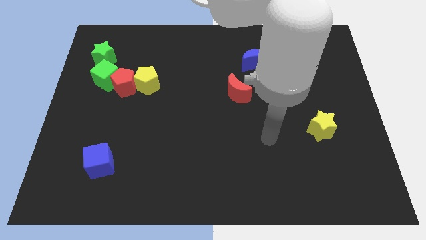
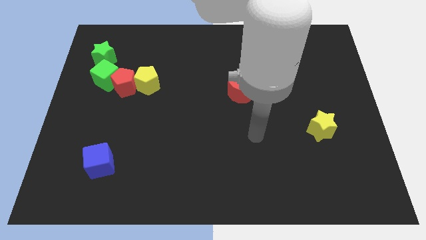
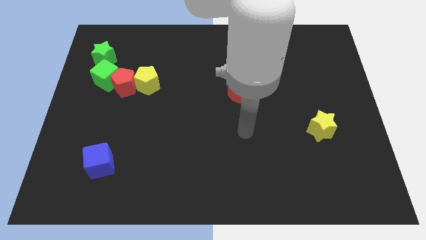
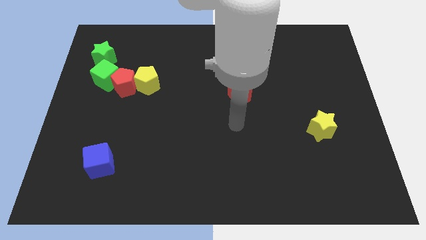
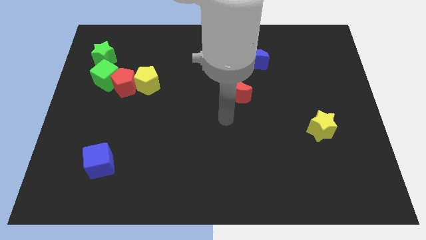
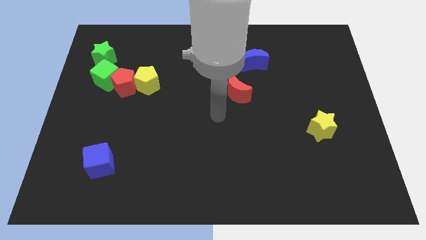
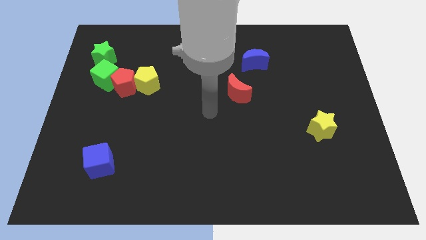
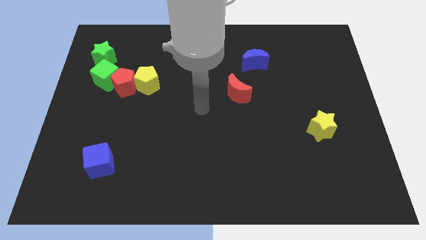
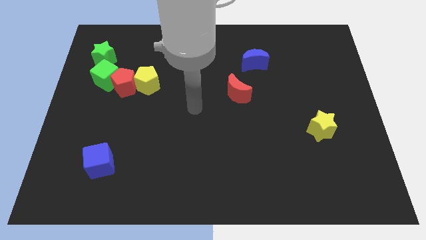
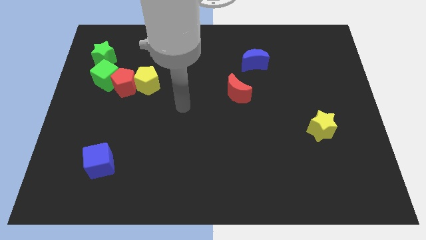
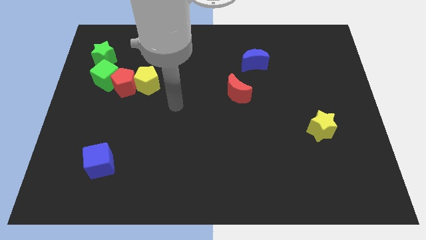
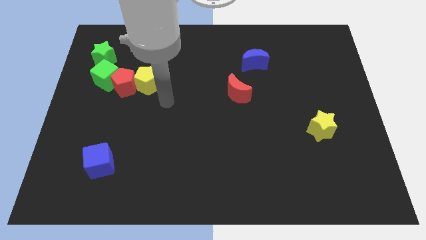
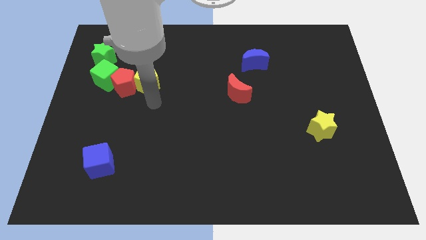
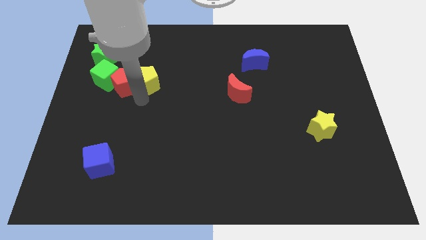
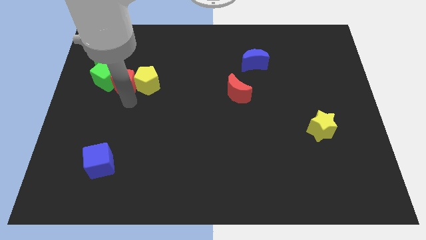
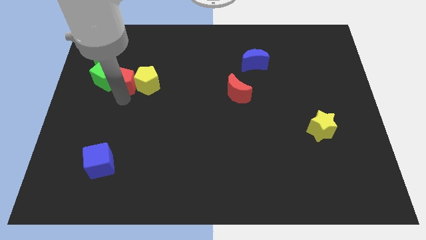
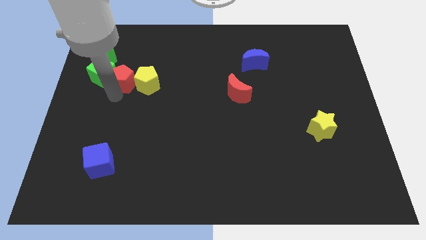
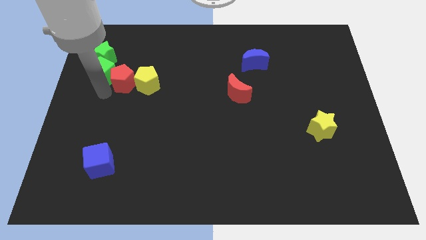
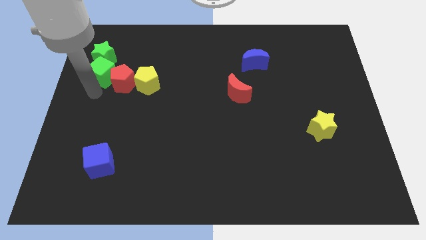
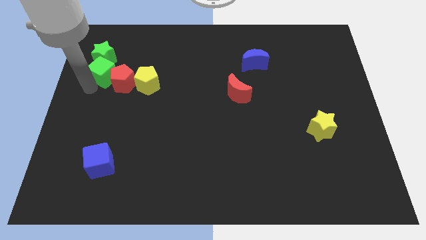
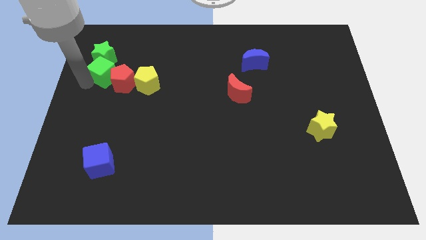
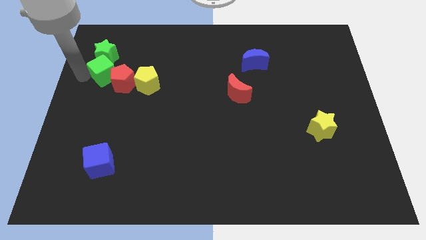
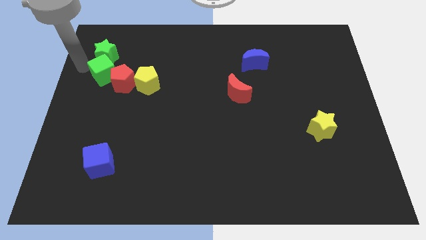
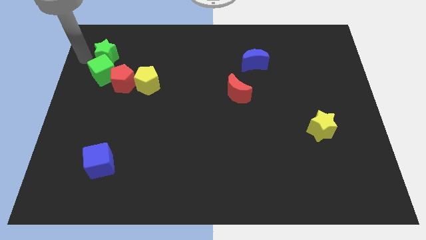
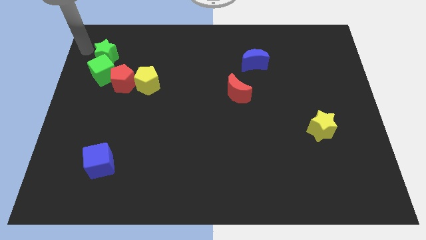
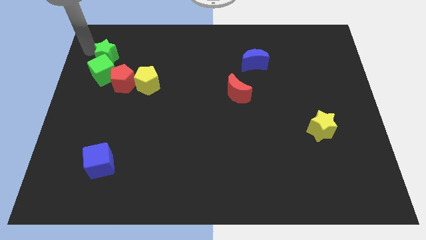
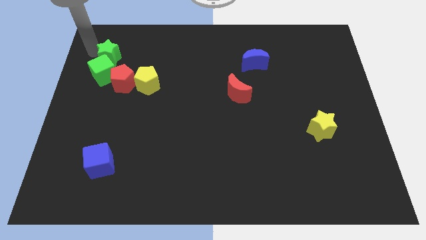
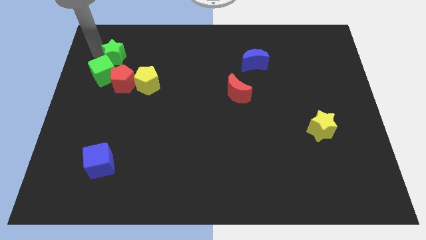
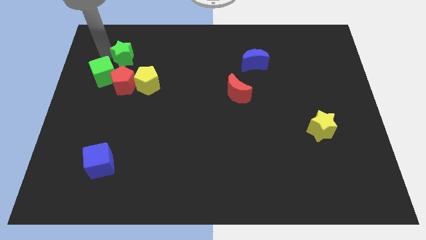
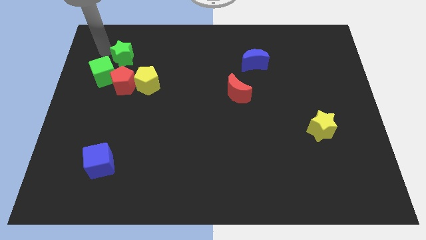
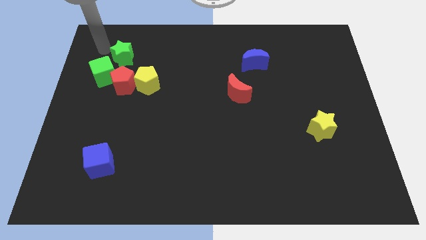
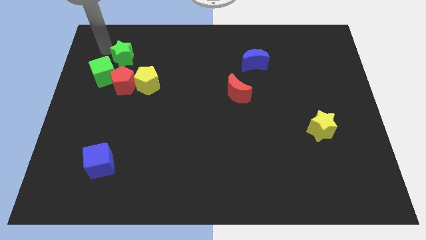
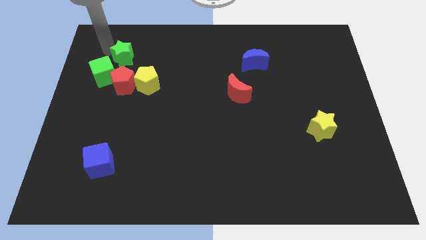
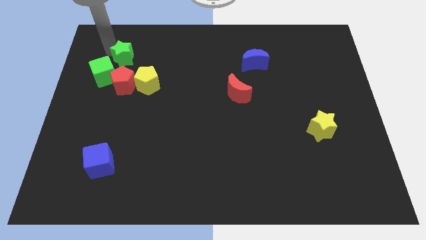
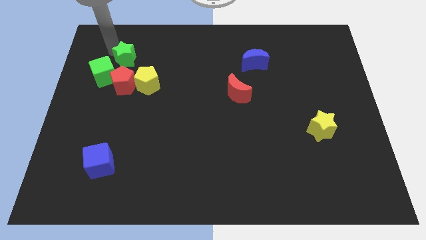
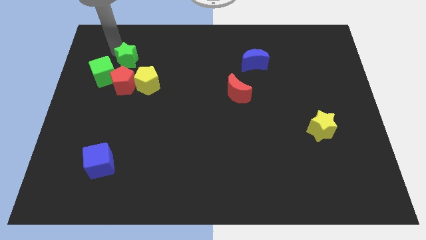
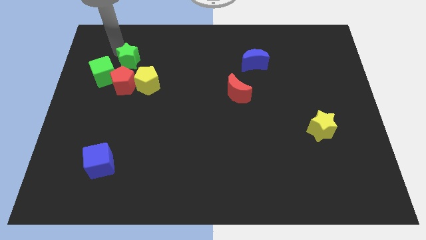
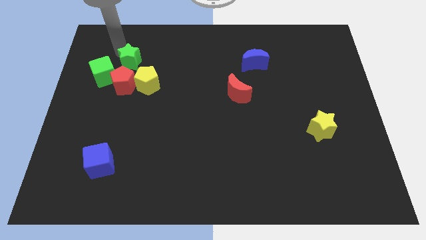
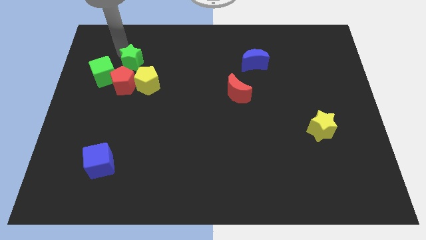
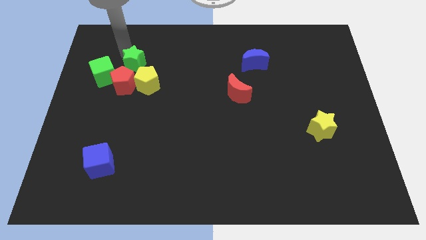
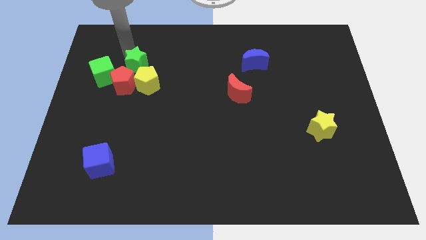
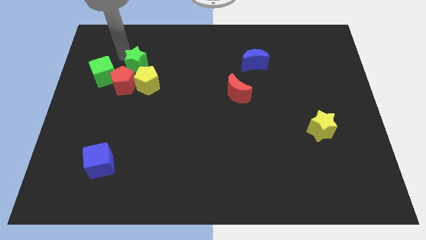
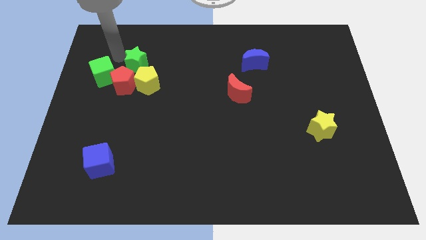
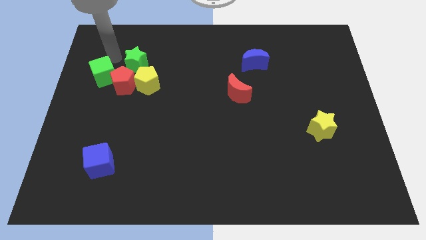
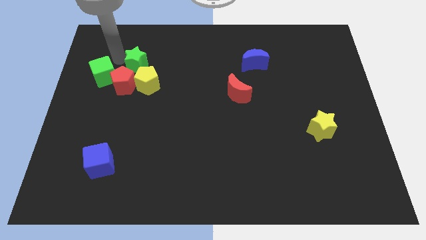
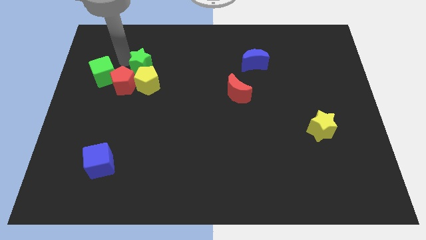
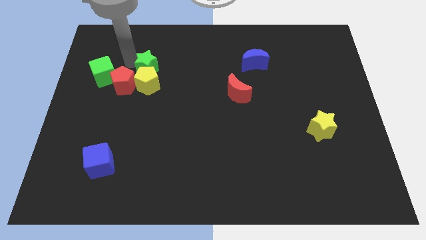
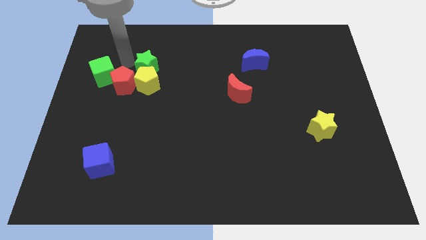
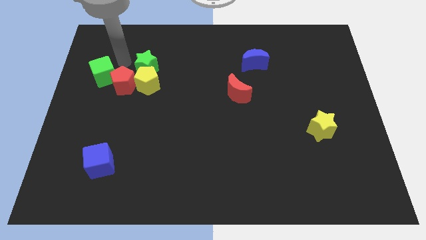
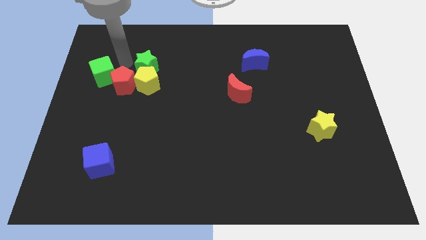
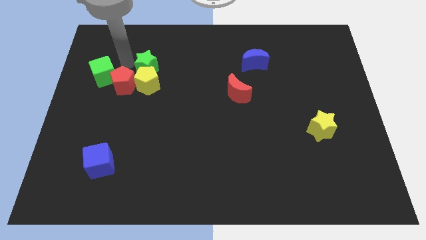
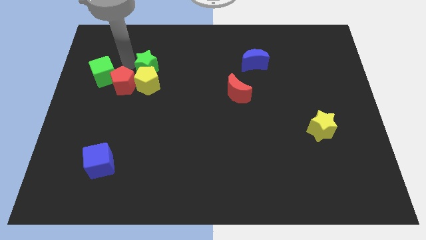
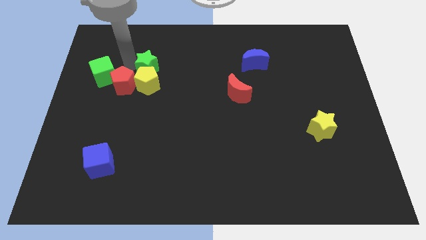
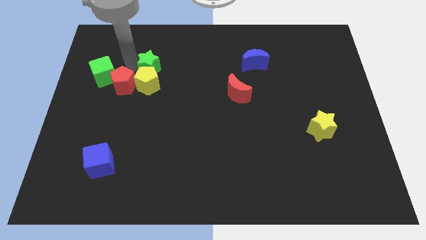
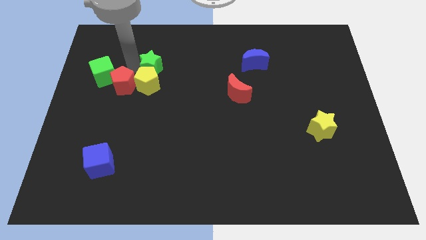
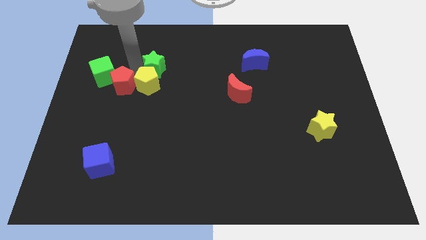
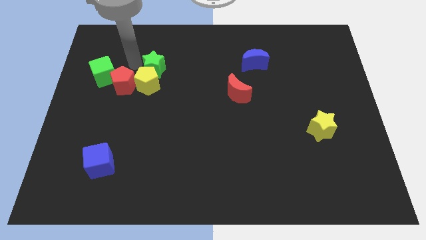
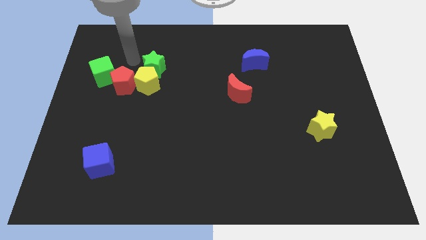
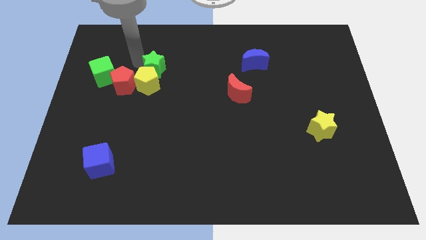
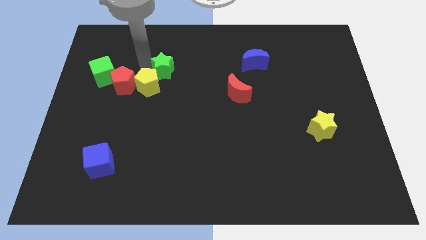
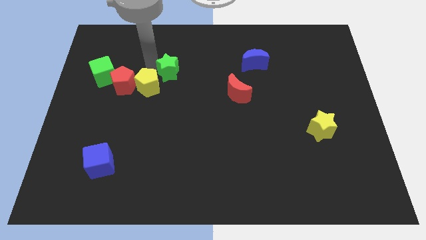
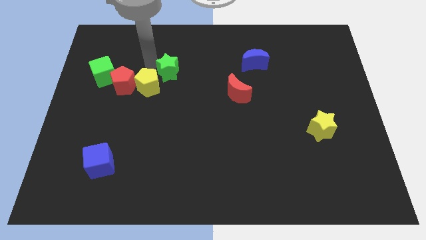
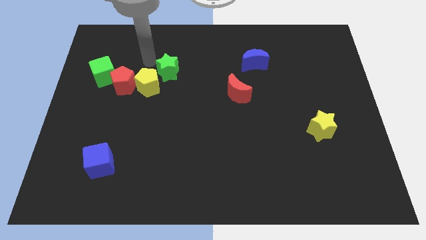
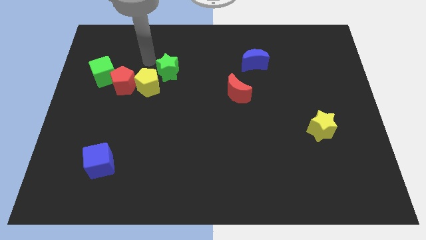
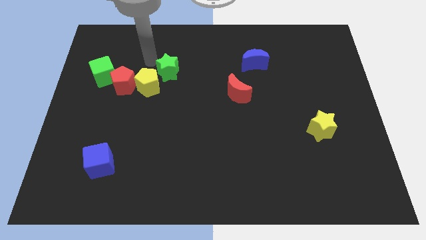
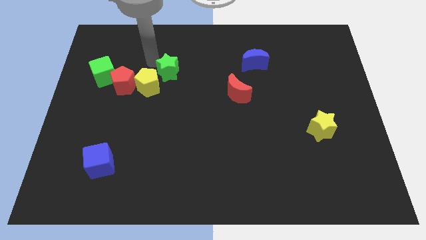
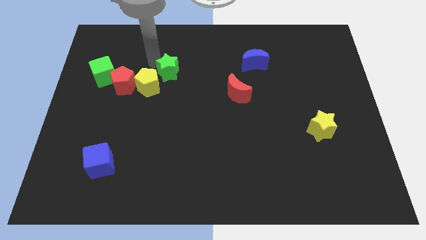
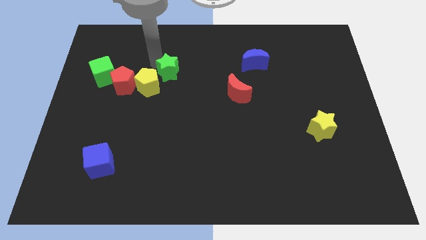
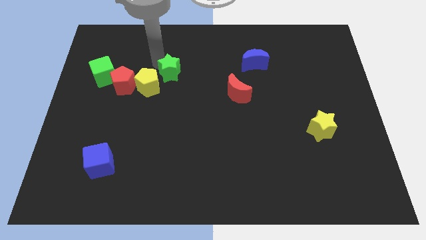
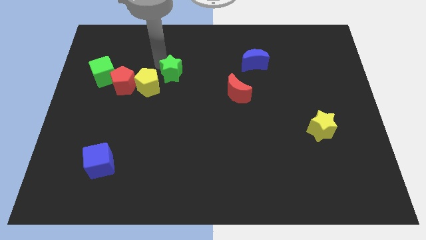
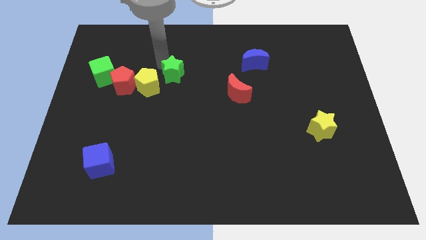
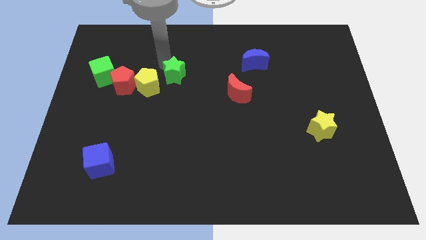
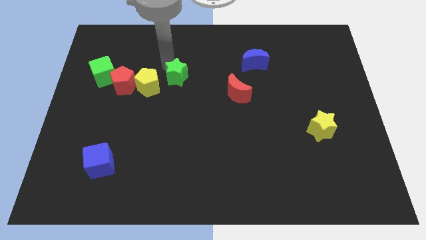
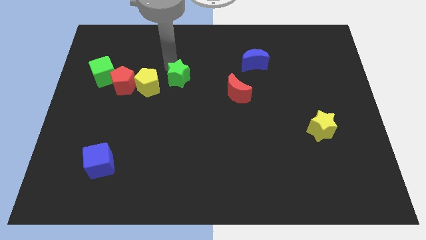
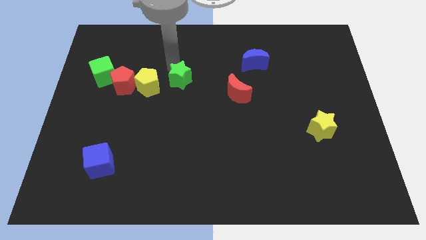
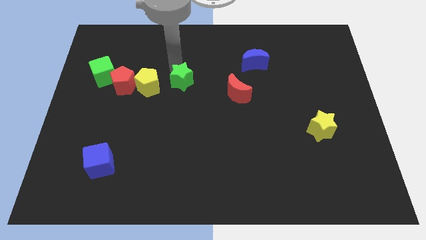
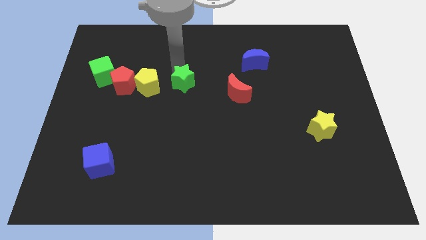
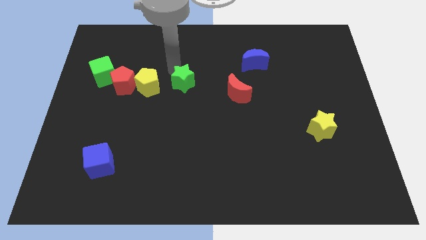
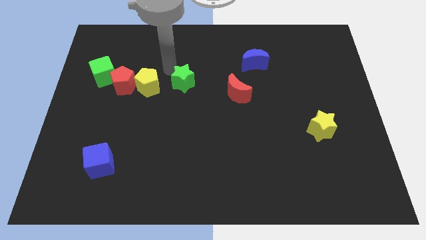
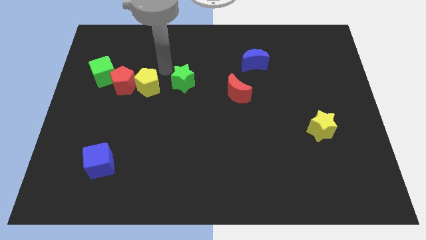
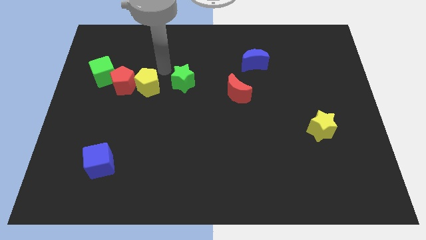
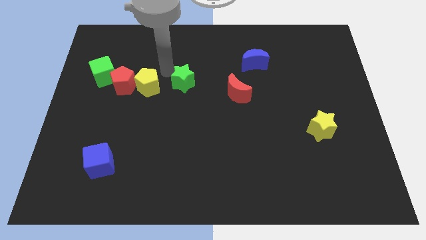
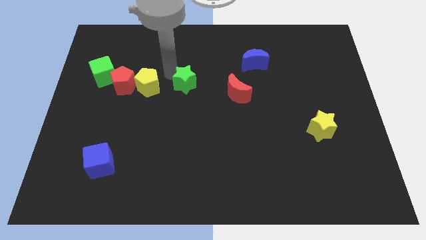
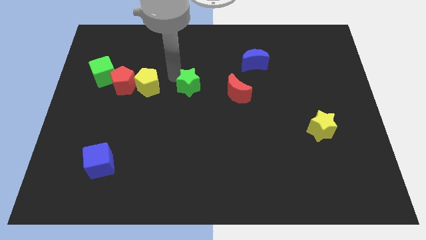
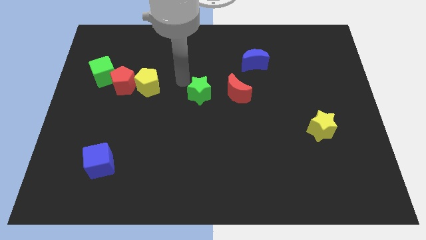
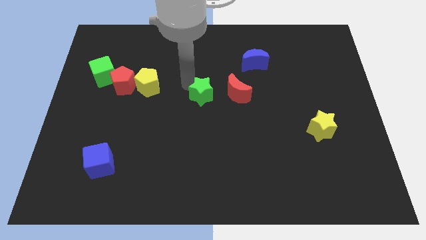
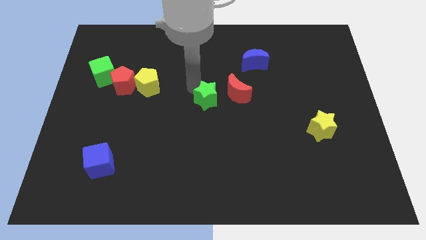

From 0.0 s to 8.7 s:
push the green star to the bottom left of the red moon
